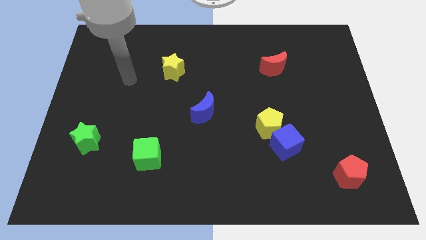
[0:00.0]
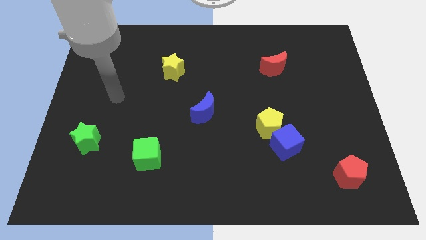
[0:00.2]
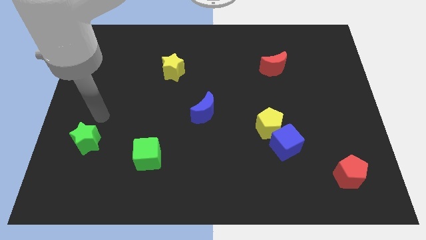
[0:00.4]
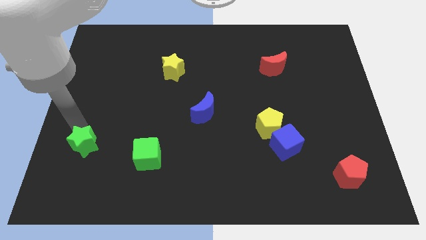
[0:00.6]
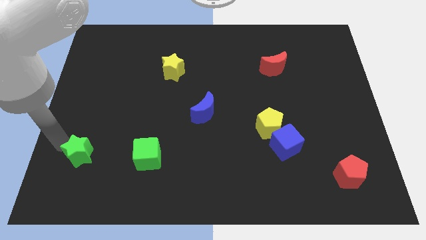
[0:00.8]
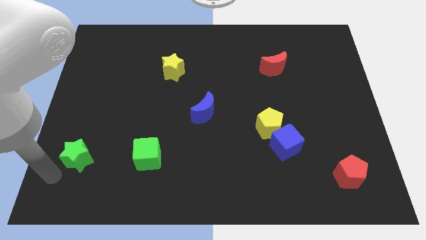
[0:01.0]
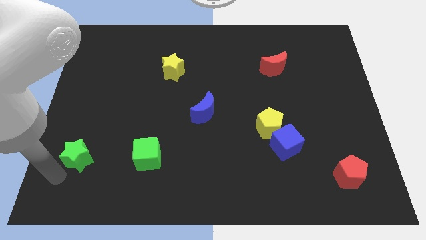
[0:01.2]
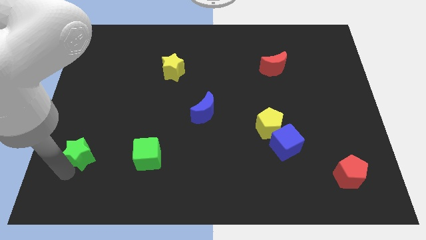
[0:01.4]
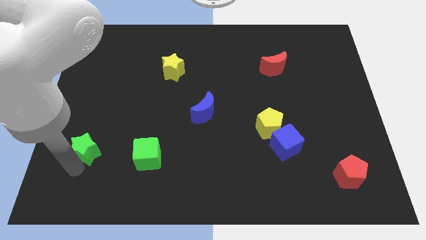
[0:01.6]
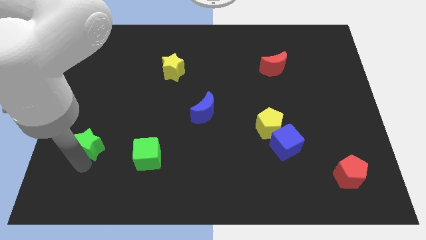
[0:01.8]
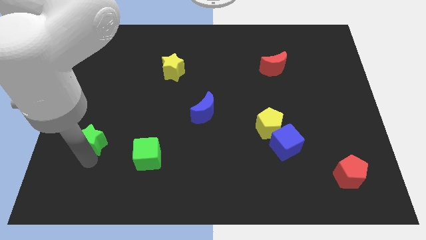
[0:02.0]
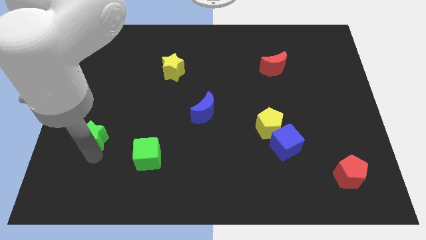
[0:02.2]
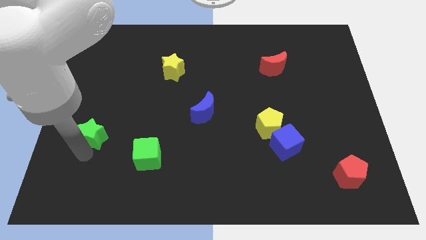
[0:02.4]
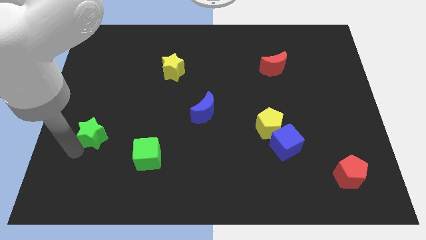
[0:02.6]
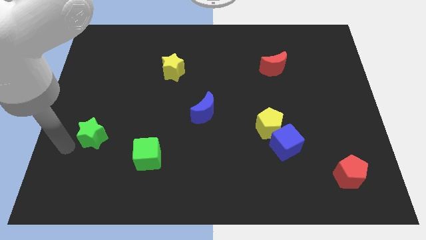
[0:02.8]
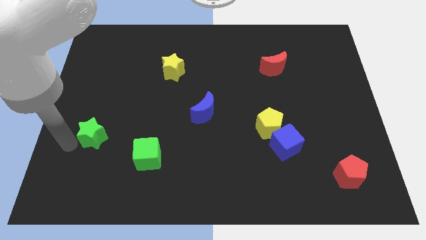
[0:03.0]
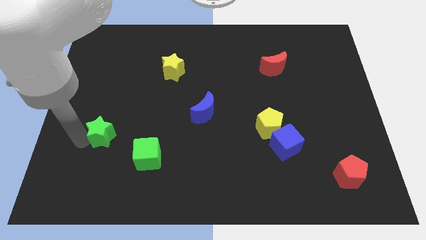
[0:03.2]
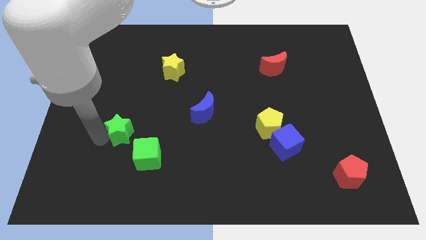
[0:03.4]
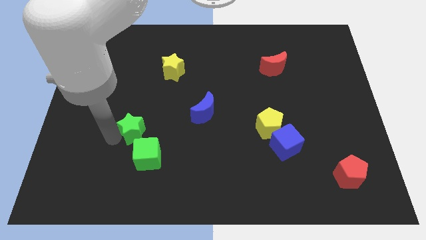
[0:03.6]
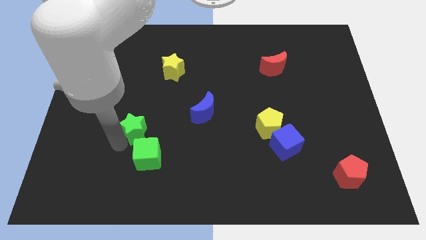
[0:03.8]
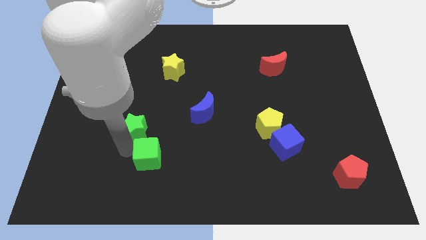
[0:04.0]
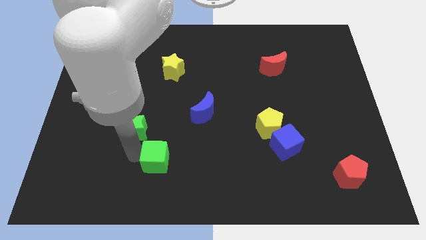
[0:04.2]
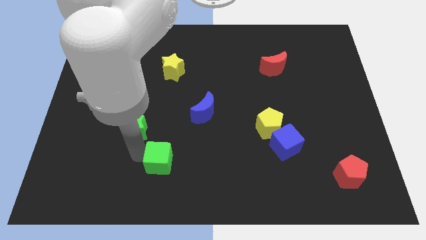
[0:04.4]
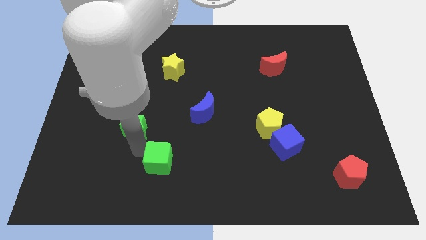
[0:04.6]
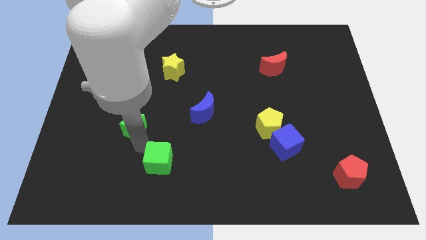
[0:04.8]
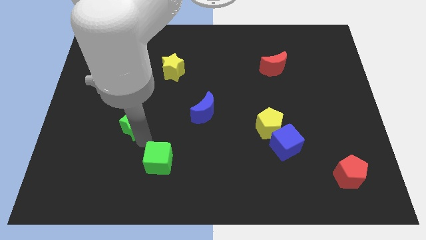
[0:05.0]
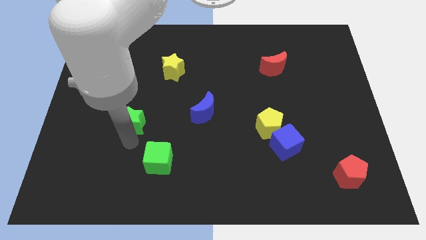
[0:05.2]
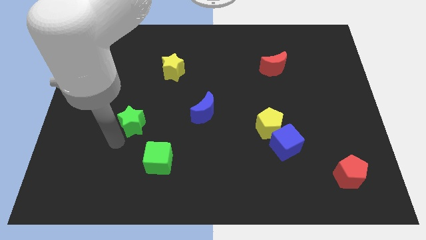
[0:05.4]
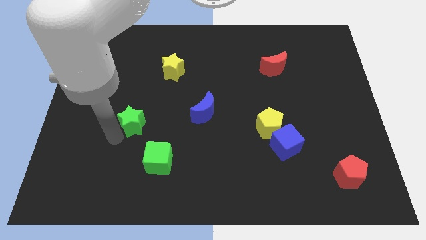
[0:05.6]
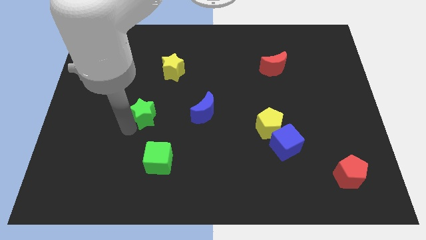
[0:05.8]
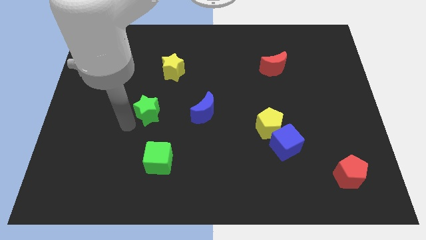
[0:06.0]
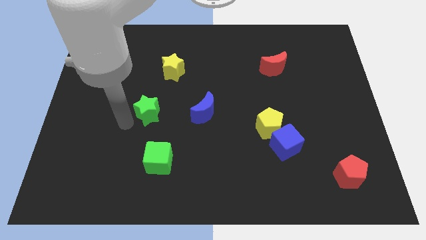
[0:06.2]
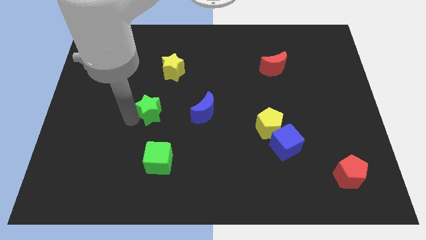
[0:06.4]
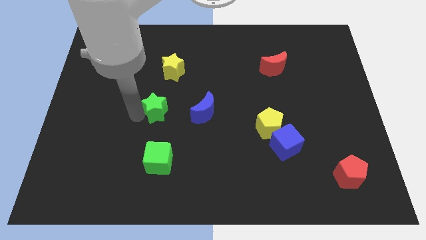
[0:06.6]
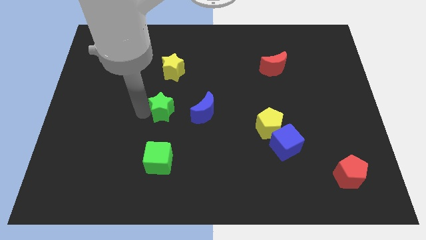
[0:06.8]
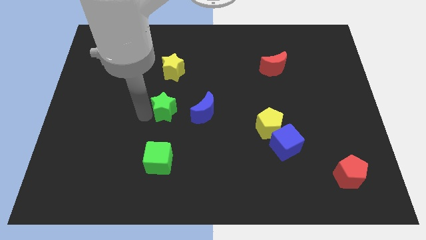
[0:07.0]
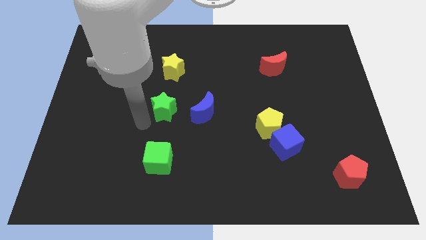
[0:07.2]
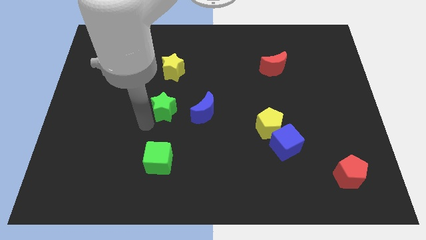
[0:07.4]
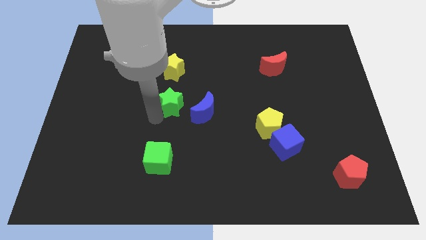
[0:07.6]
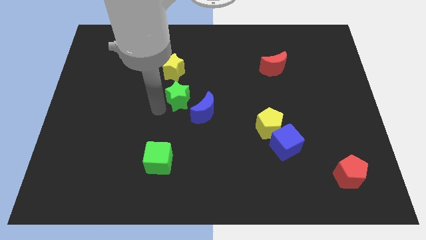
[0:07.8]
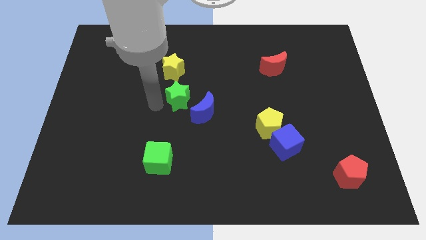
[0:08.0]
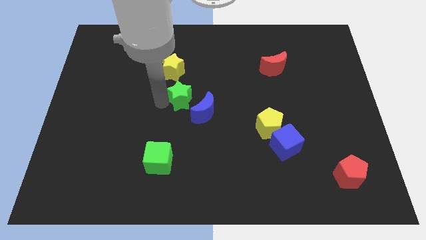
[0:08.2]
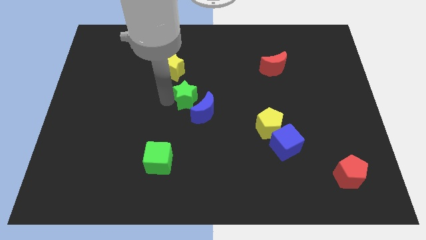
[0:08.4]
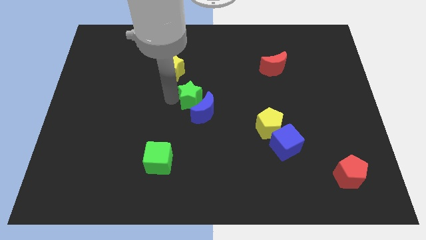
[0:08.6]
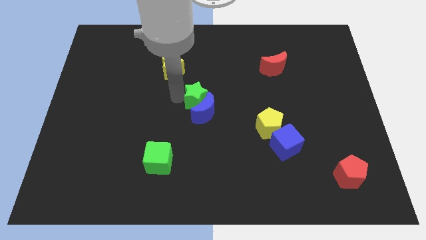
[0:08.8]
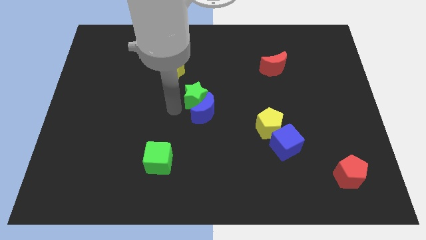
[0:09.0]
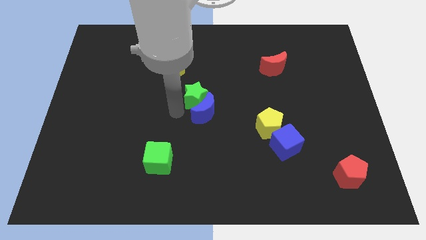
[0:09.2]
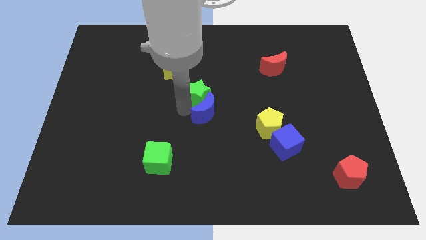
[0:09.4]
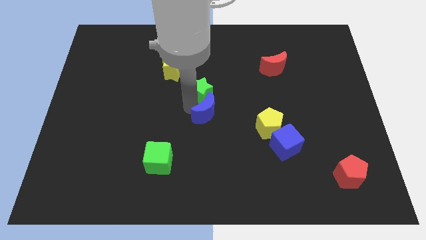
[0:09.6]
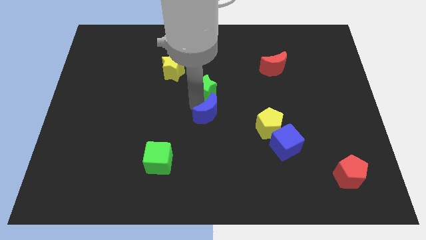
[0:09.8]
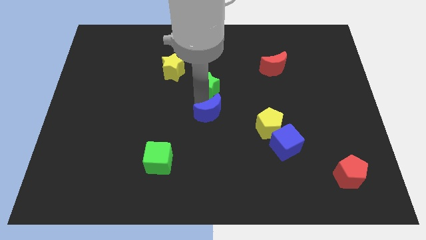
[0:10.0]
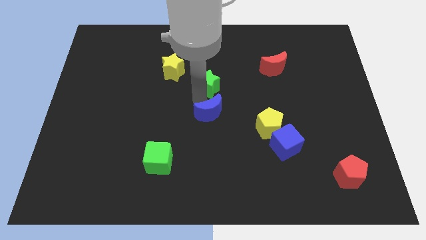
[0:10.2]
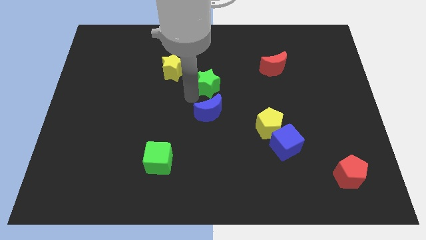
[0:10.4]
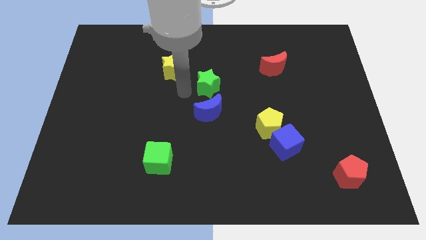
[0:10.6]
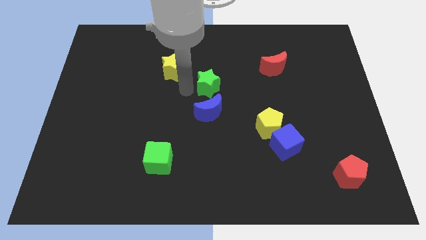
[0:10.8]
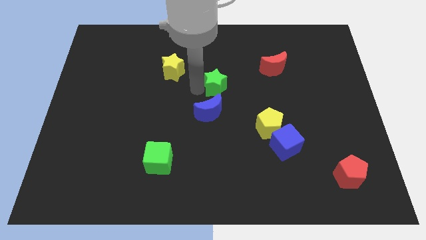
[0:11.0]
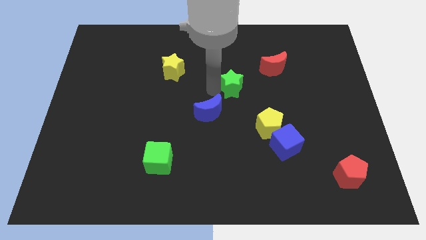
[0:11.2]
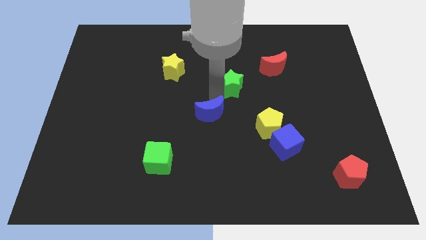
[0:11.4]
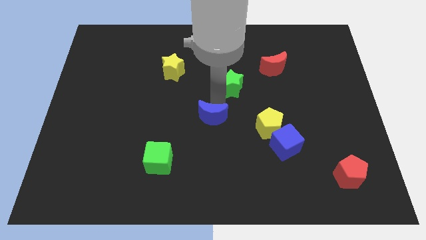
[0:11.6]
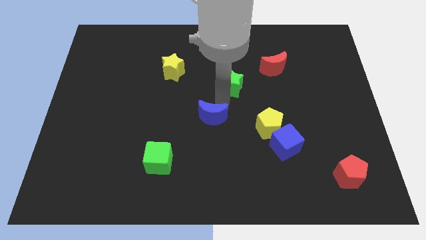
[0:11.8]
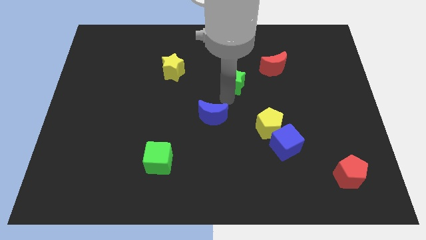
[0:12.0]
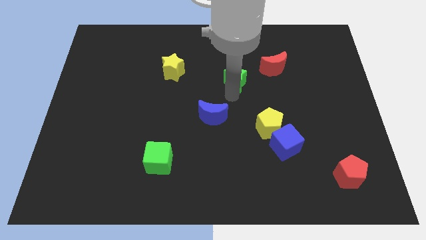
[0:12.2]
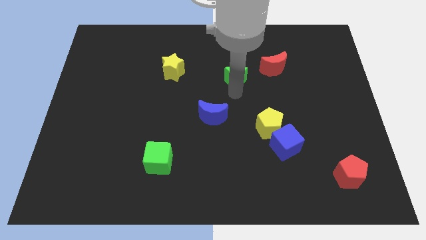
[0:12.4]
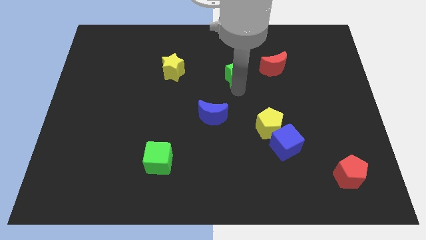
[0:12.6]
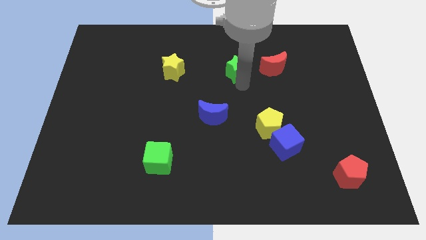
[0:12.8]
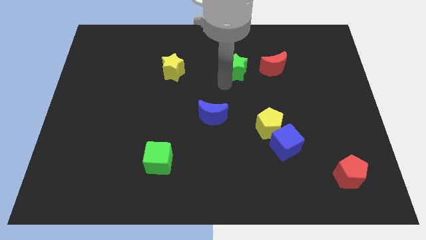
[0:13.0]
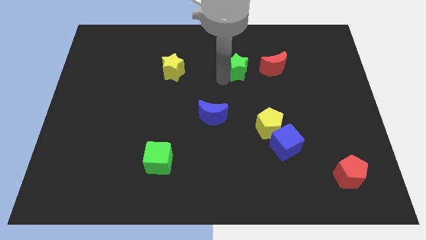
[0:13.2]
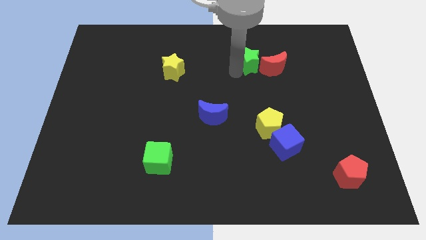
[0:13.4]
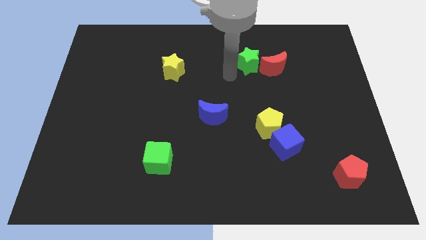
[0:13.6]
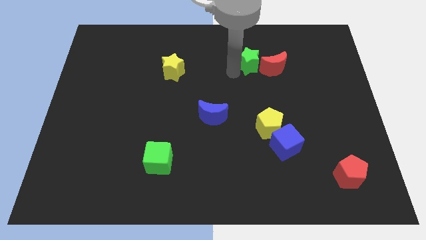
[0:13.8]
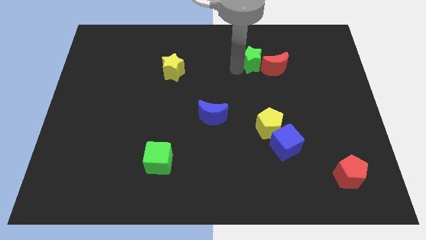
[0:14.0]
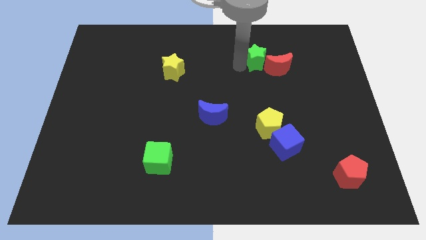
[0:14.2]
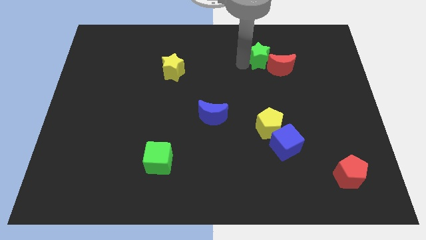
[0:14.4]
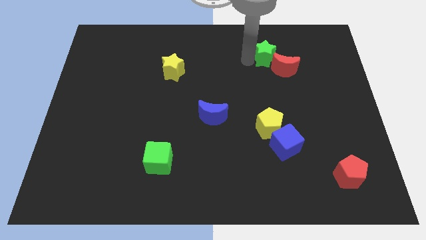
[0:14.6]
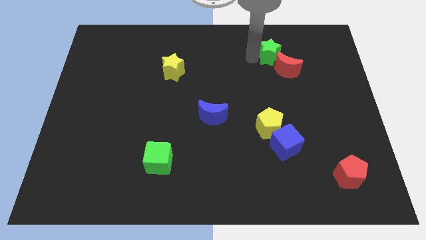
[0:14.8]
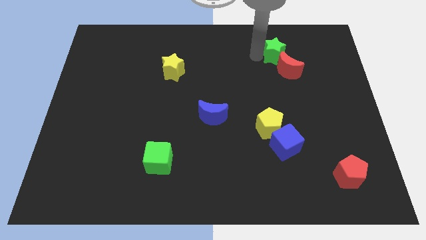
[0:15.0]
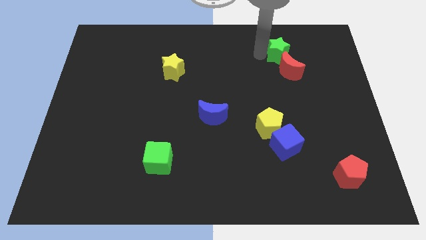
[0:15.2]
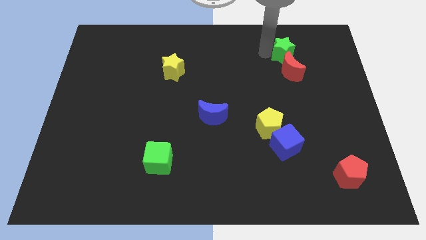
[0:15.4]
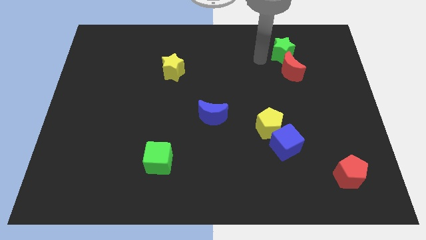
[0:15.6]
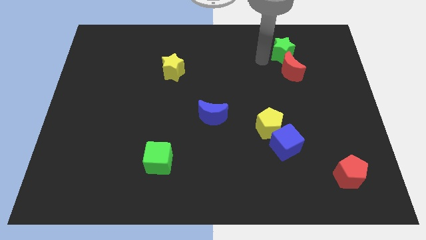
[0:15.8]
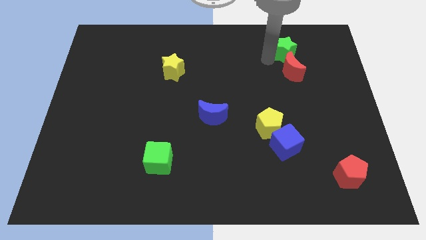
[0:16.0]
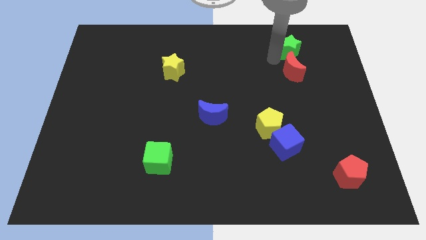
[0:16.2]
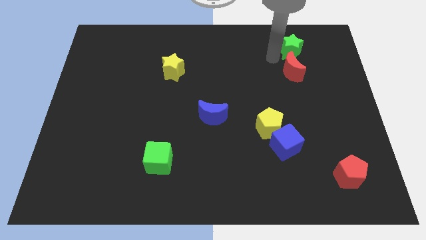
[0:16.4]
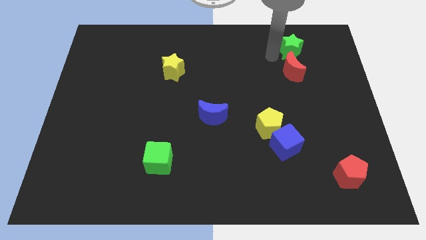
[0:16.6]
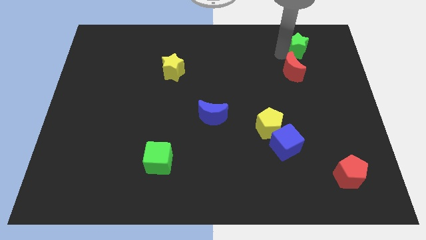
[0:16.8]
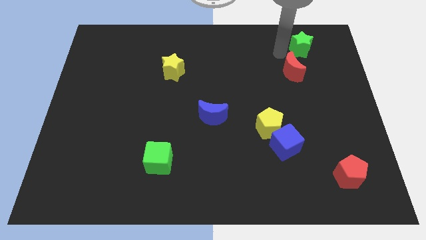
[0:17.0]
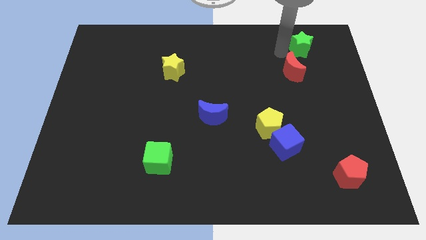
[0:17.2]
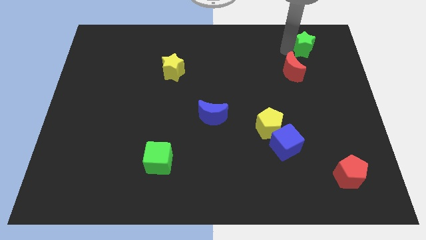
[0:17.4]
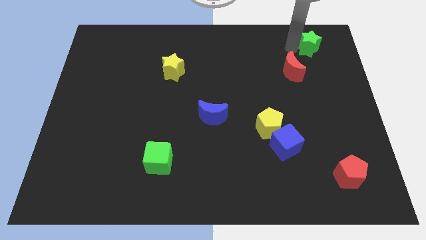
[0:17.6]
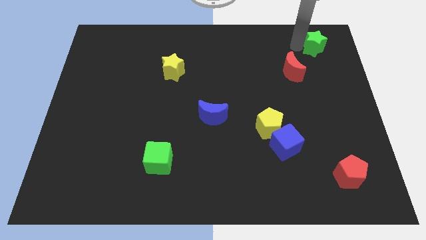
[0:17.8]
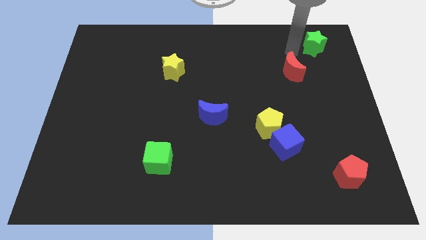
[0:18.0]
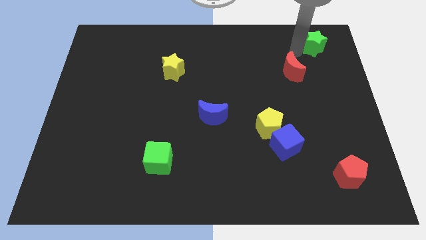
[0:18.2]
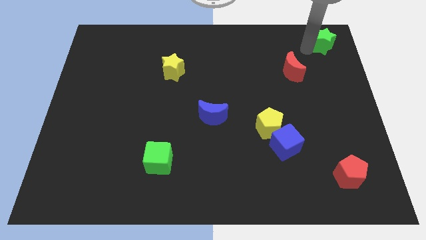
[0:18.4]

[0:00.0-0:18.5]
slide the green star to the top right corner
